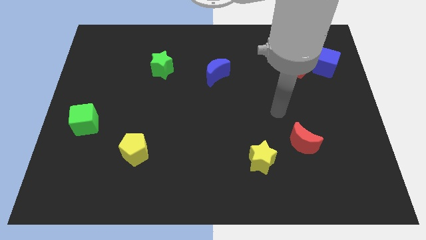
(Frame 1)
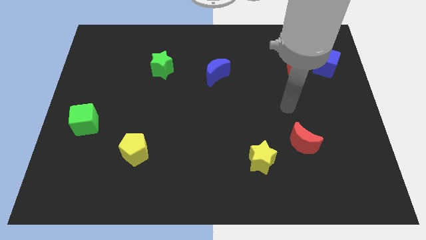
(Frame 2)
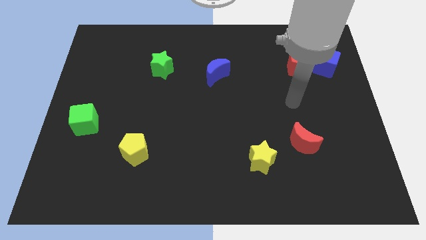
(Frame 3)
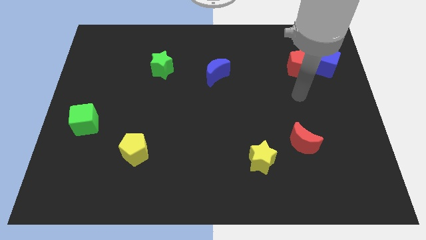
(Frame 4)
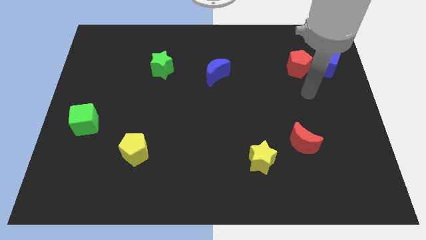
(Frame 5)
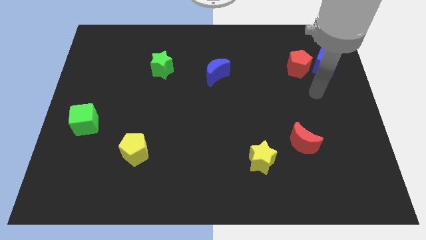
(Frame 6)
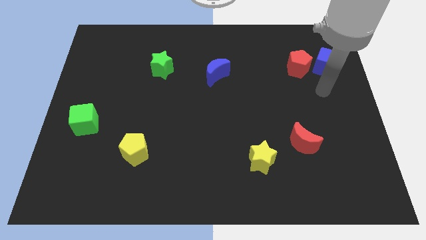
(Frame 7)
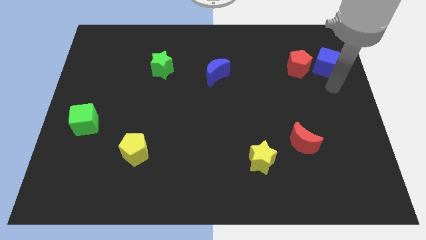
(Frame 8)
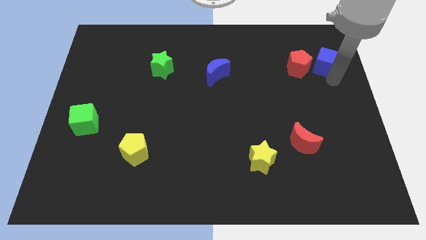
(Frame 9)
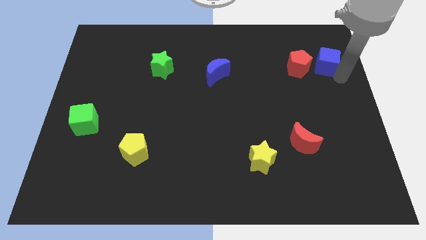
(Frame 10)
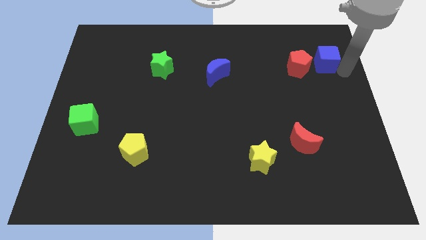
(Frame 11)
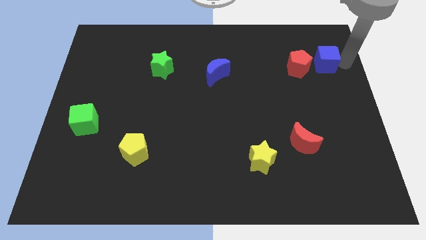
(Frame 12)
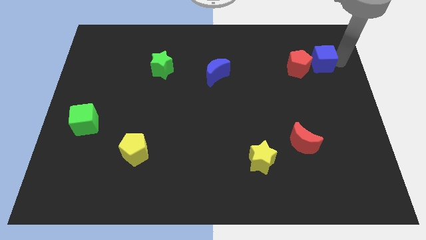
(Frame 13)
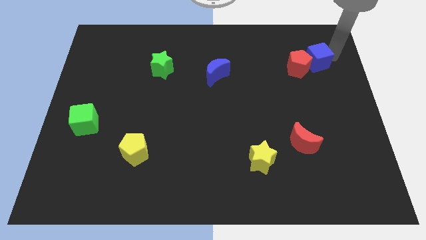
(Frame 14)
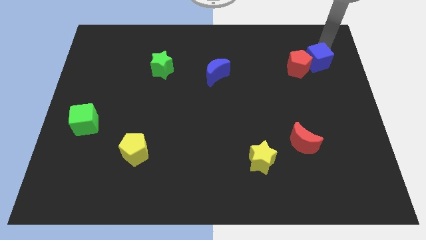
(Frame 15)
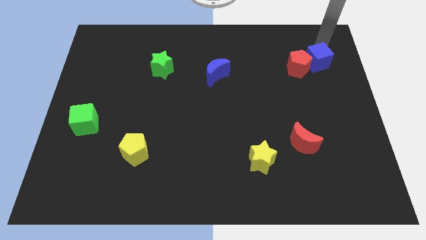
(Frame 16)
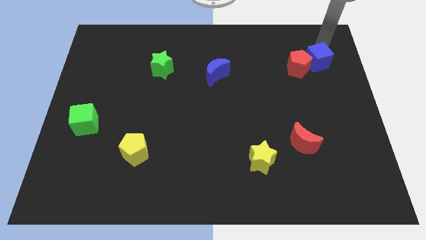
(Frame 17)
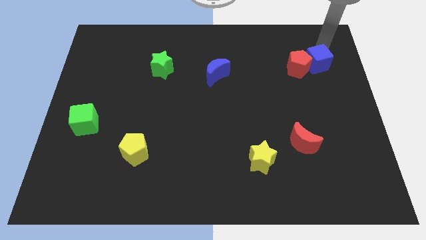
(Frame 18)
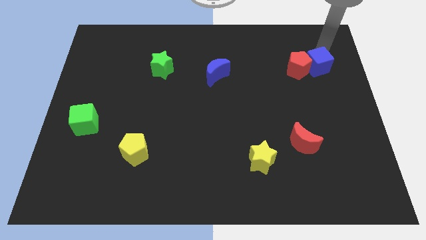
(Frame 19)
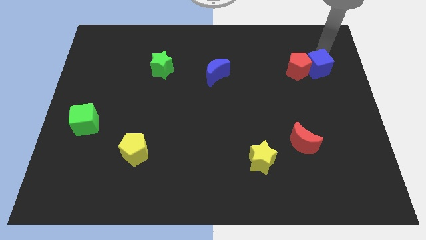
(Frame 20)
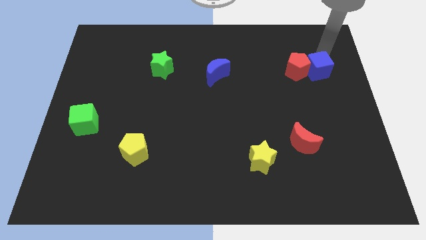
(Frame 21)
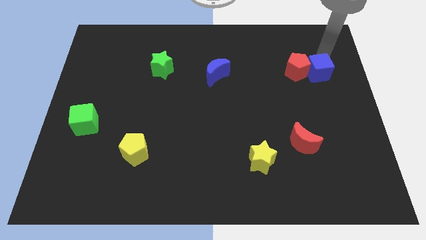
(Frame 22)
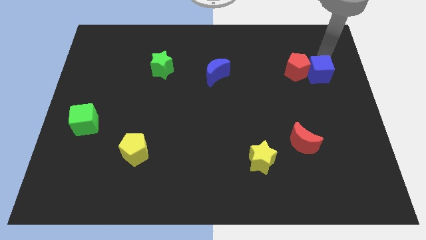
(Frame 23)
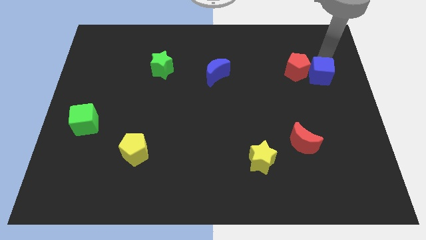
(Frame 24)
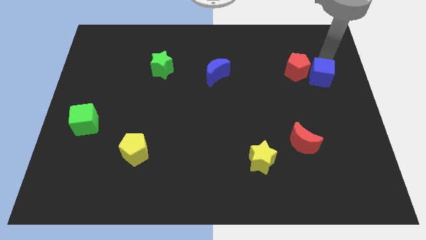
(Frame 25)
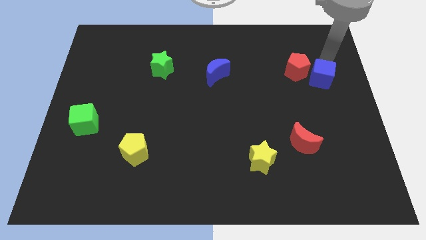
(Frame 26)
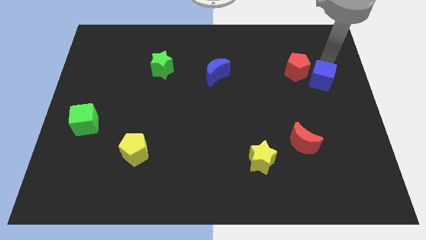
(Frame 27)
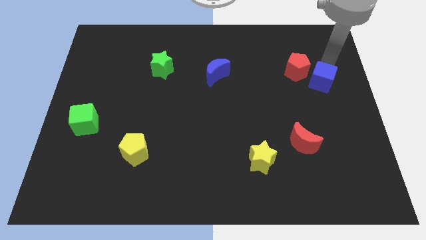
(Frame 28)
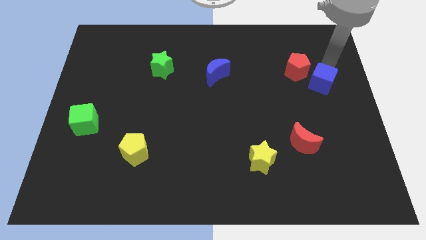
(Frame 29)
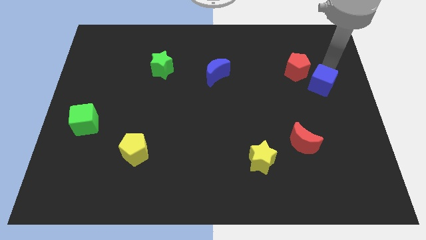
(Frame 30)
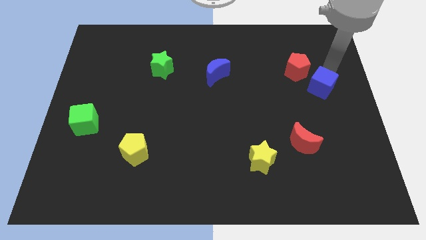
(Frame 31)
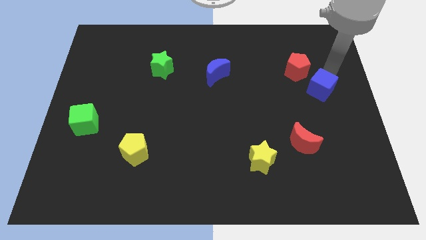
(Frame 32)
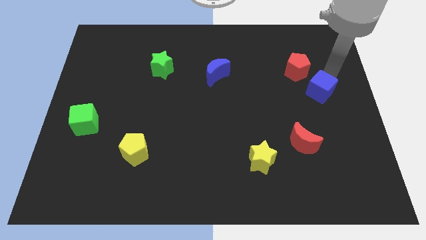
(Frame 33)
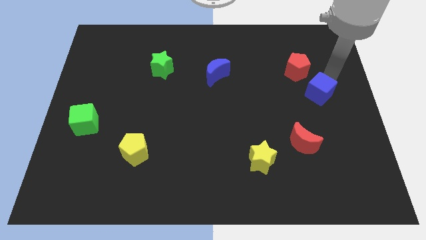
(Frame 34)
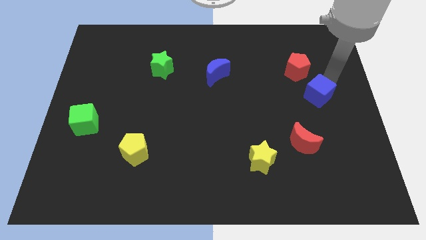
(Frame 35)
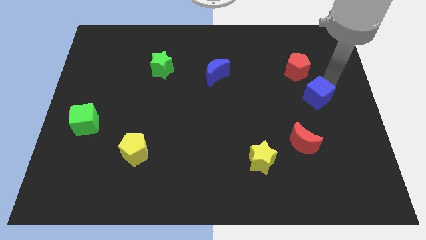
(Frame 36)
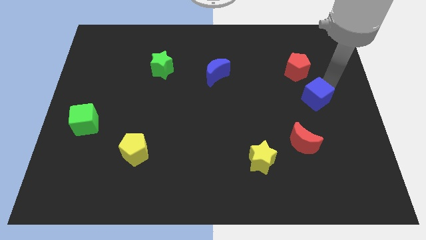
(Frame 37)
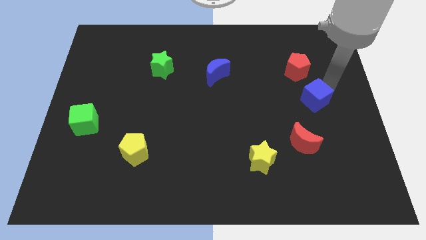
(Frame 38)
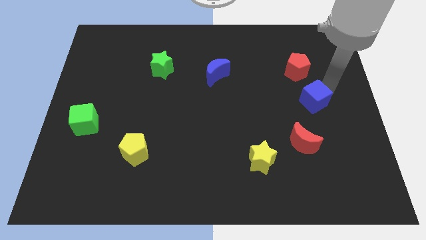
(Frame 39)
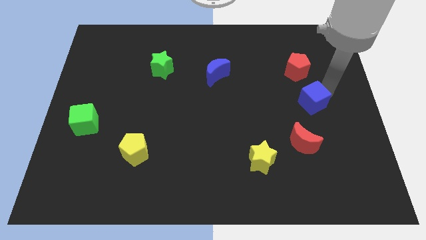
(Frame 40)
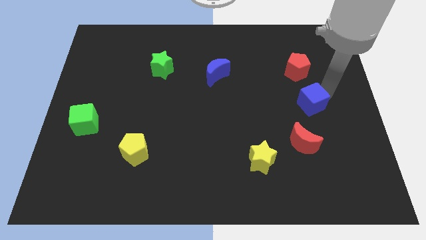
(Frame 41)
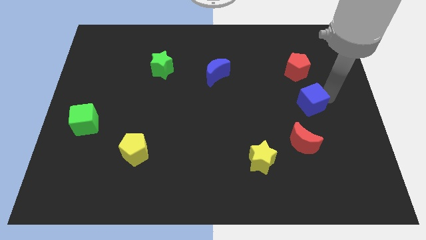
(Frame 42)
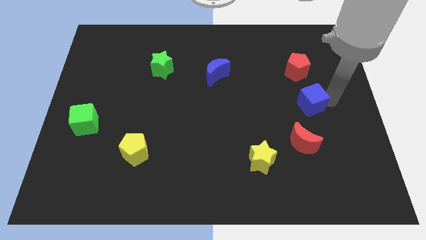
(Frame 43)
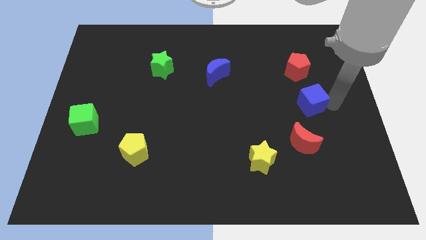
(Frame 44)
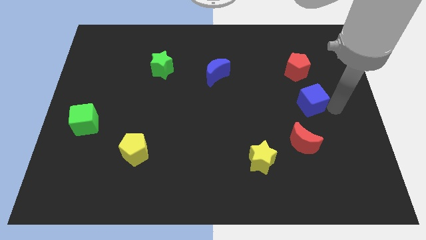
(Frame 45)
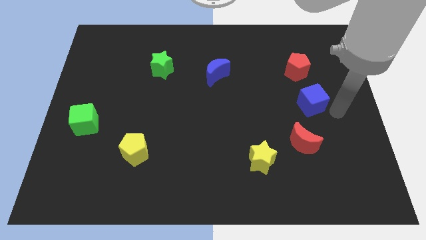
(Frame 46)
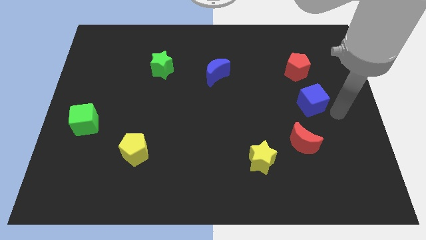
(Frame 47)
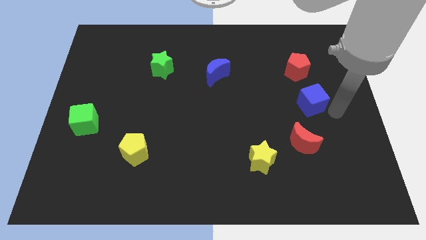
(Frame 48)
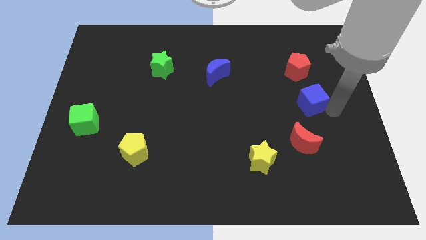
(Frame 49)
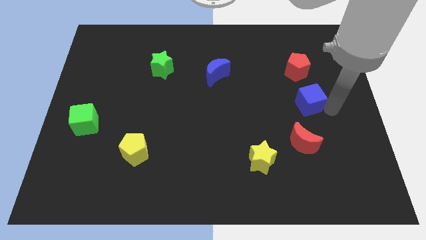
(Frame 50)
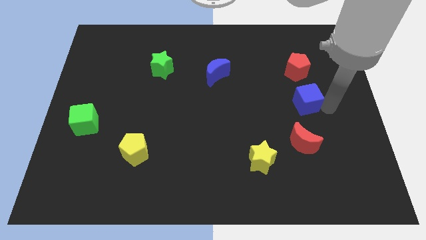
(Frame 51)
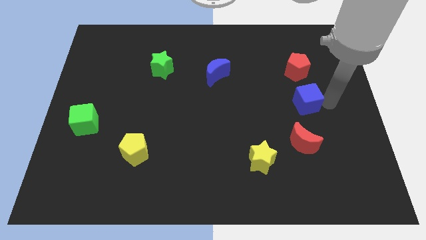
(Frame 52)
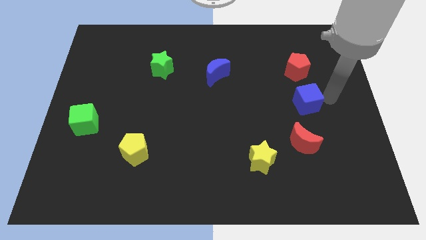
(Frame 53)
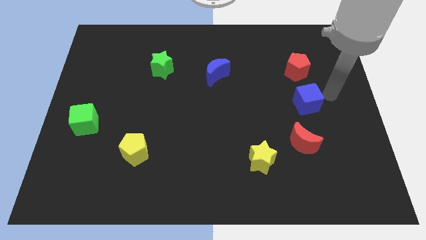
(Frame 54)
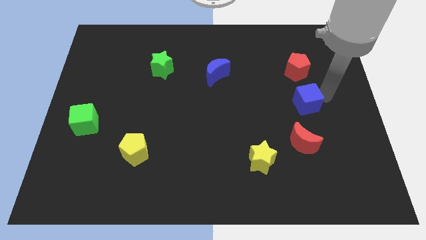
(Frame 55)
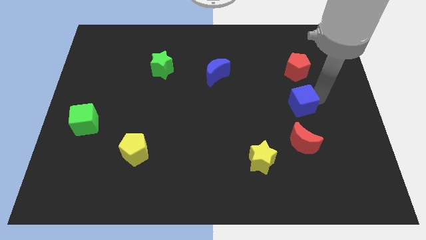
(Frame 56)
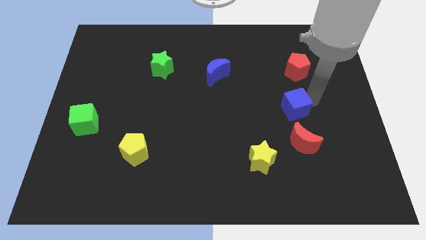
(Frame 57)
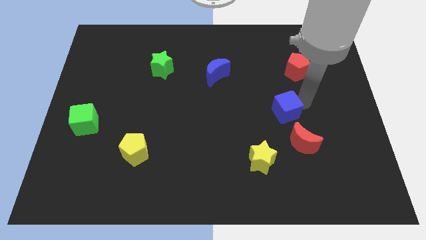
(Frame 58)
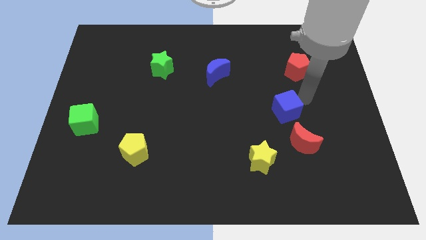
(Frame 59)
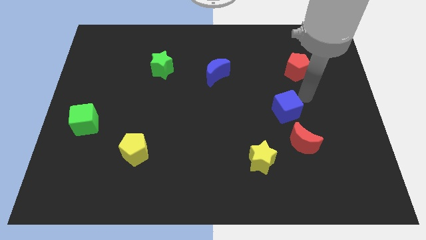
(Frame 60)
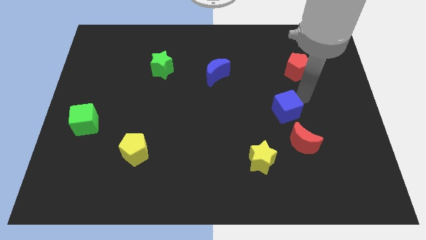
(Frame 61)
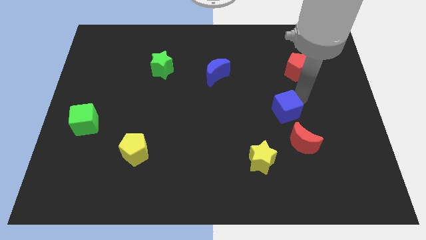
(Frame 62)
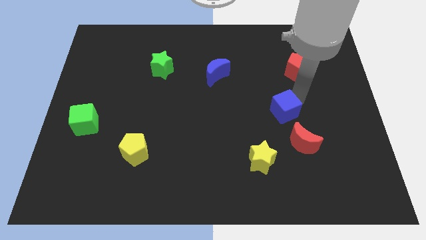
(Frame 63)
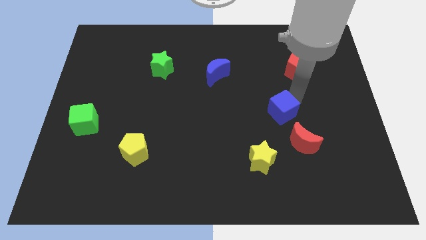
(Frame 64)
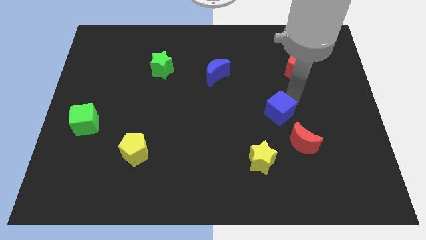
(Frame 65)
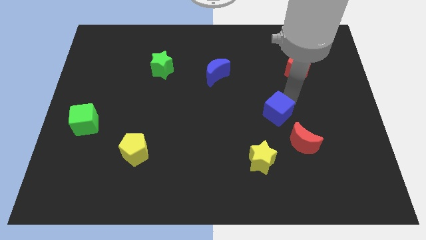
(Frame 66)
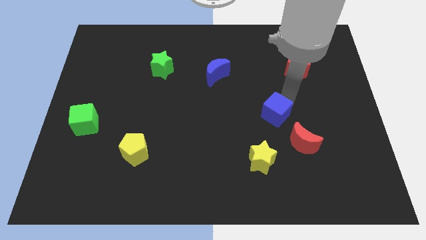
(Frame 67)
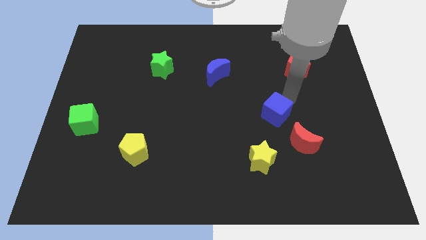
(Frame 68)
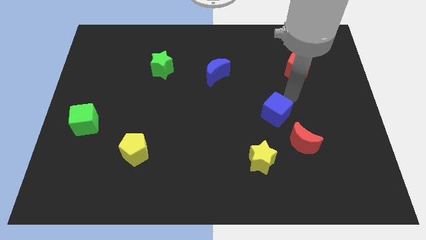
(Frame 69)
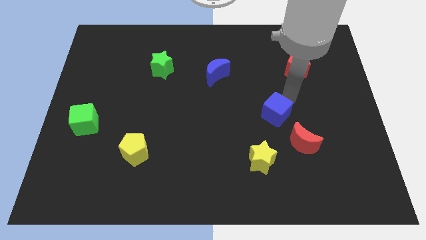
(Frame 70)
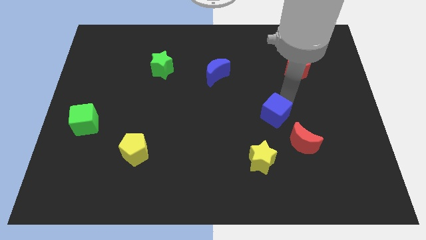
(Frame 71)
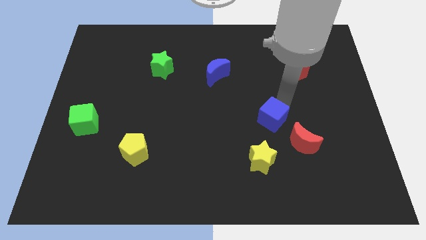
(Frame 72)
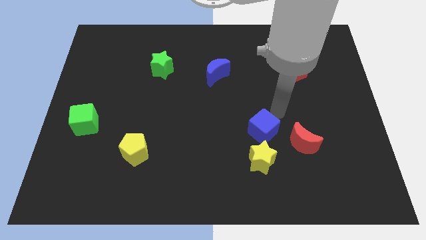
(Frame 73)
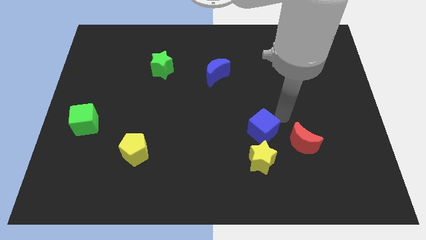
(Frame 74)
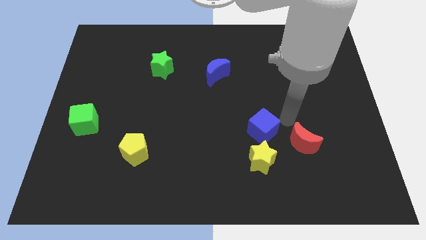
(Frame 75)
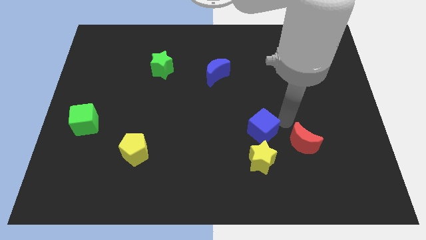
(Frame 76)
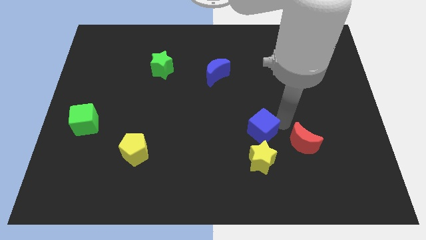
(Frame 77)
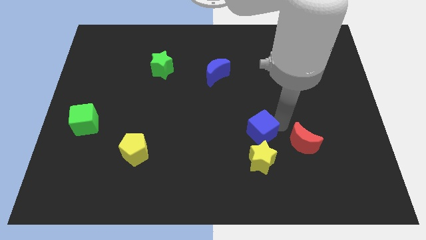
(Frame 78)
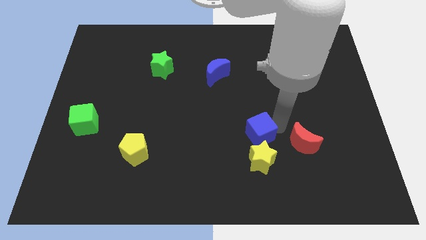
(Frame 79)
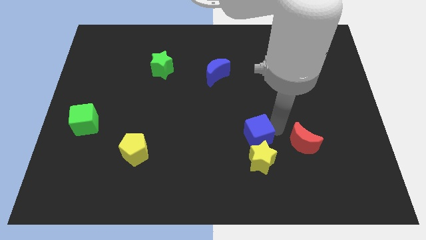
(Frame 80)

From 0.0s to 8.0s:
put the blue cube diagonally up and to the left of the yellow star
